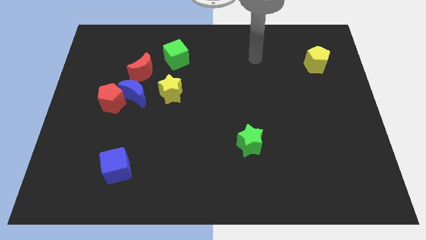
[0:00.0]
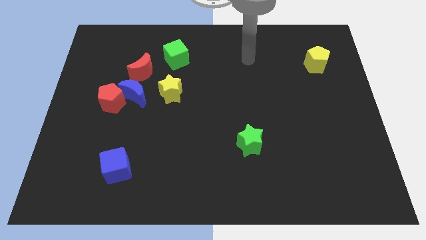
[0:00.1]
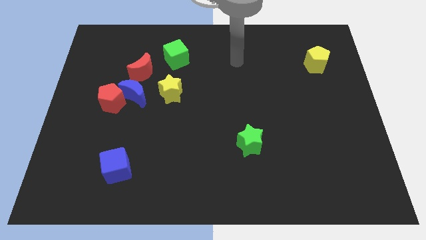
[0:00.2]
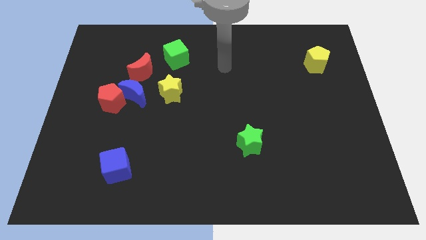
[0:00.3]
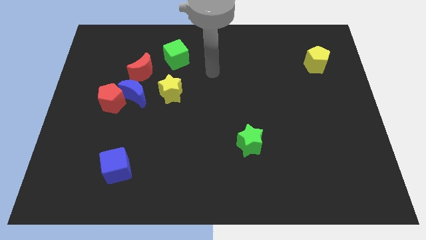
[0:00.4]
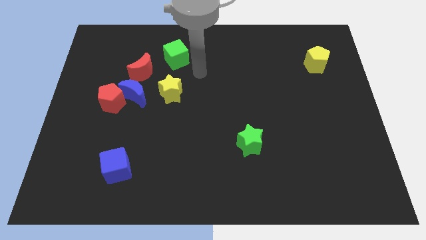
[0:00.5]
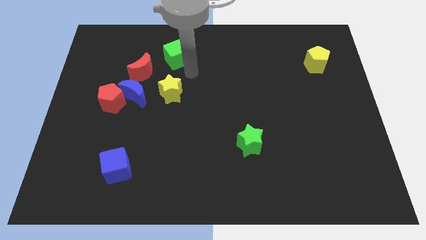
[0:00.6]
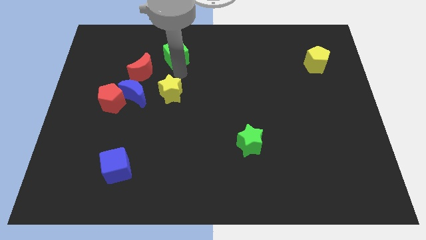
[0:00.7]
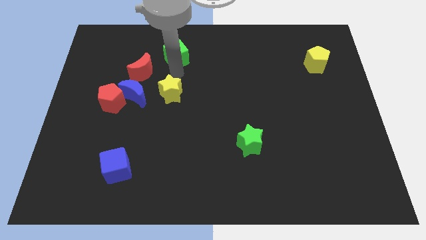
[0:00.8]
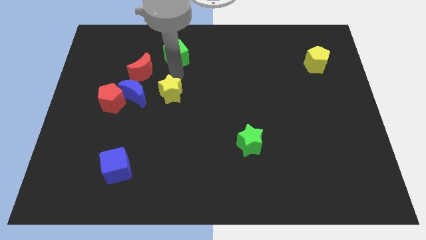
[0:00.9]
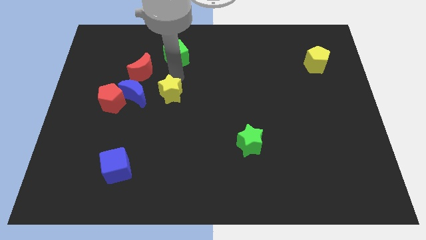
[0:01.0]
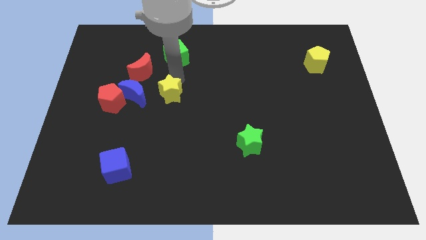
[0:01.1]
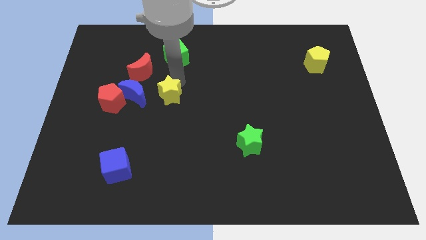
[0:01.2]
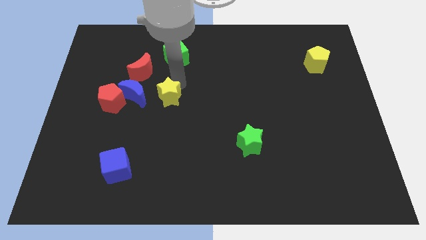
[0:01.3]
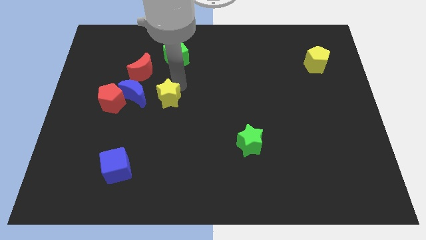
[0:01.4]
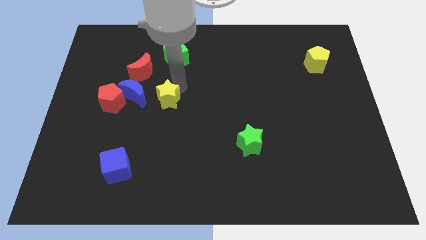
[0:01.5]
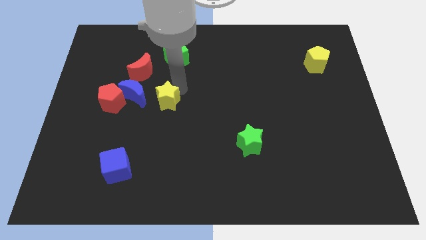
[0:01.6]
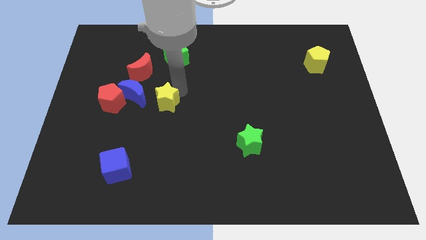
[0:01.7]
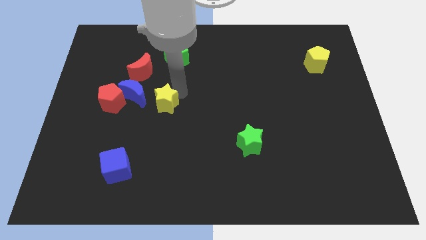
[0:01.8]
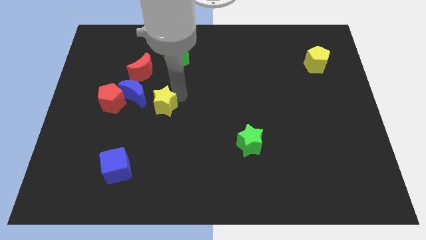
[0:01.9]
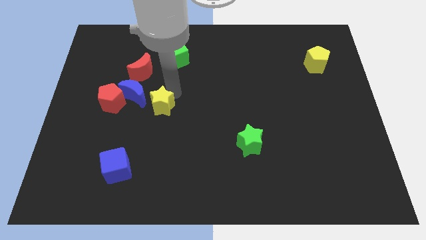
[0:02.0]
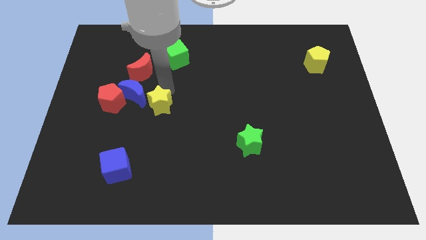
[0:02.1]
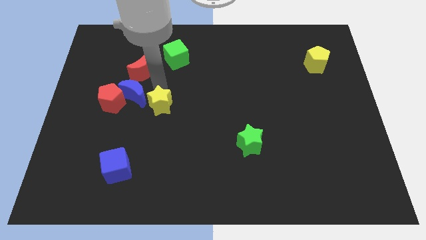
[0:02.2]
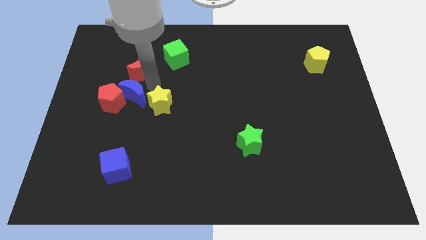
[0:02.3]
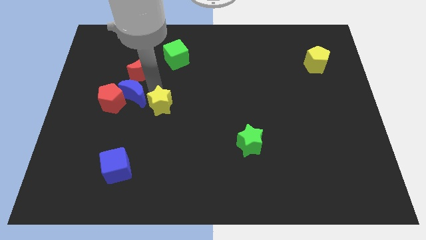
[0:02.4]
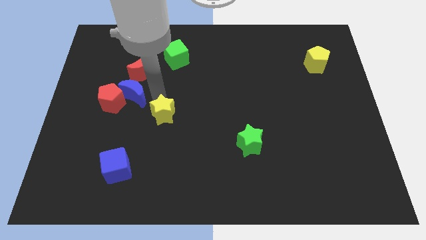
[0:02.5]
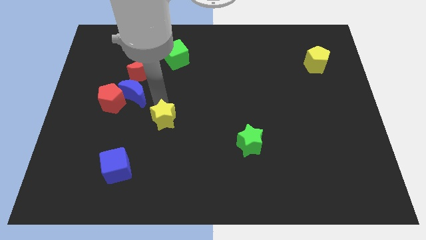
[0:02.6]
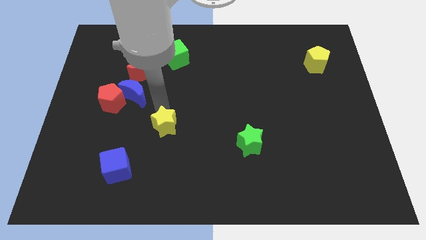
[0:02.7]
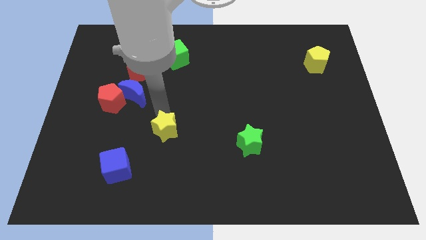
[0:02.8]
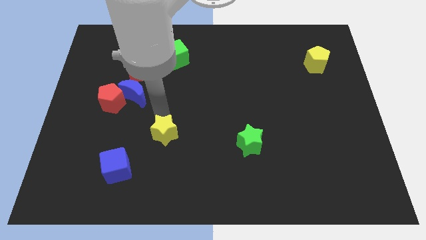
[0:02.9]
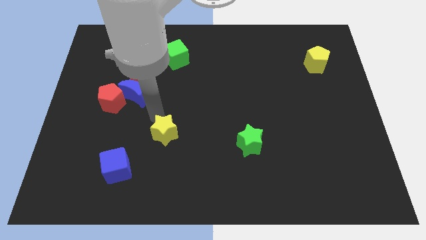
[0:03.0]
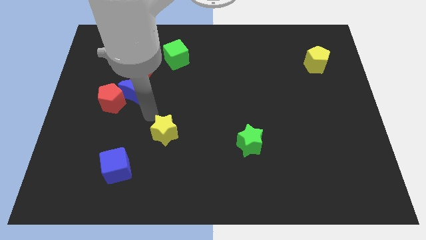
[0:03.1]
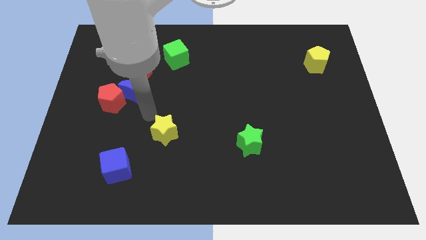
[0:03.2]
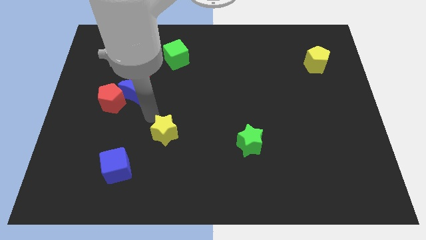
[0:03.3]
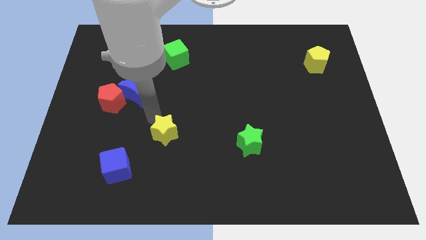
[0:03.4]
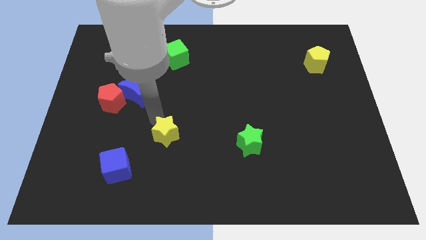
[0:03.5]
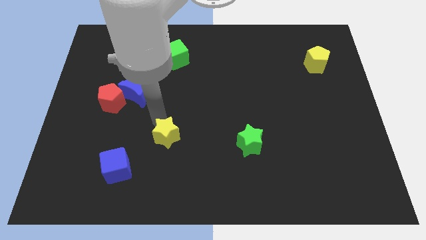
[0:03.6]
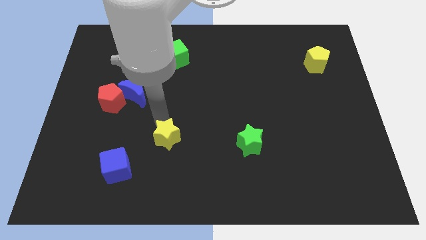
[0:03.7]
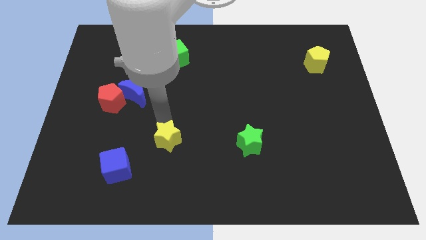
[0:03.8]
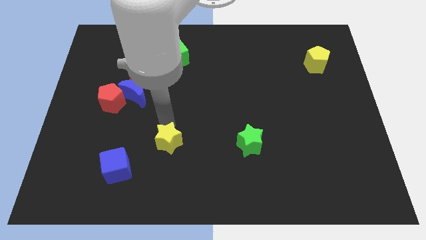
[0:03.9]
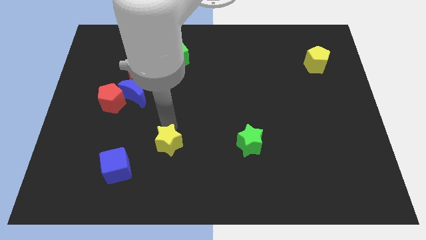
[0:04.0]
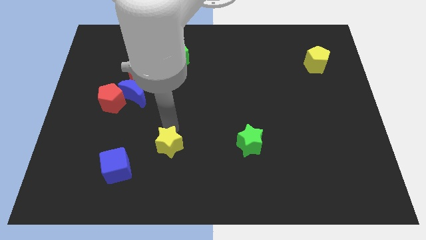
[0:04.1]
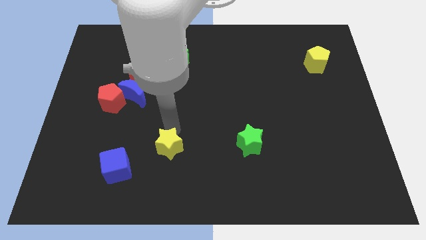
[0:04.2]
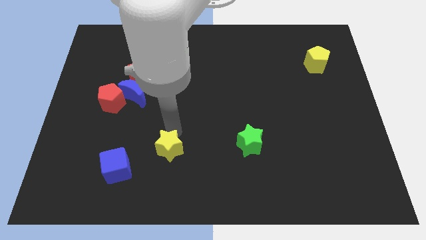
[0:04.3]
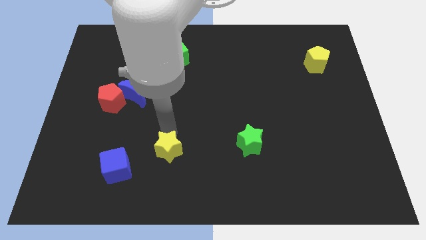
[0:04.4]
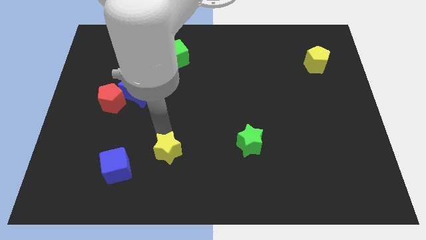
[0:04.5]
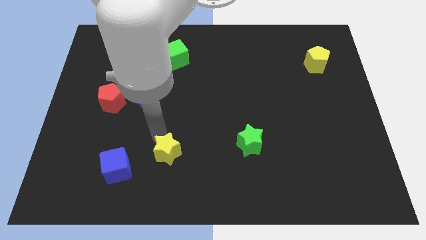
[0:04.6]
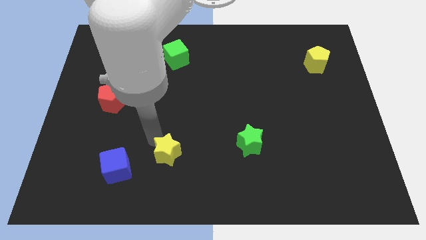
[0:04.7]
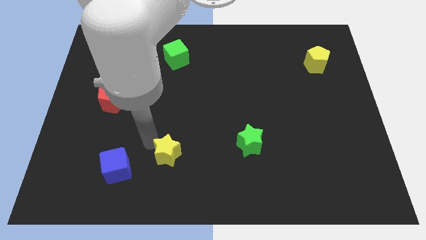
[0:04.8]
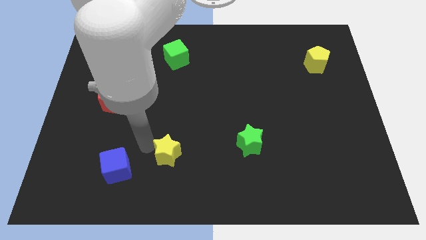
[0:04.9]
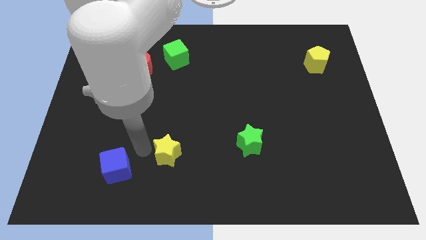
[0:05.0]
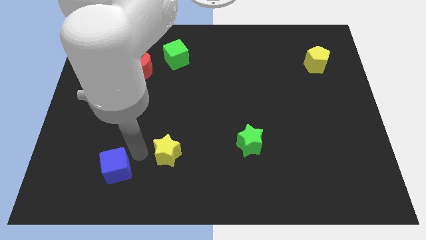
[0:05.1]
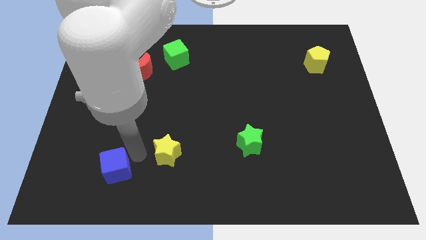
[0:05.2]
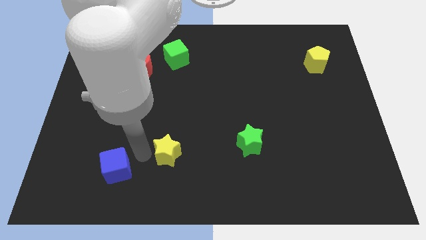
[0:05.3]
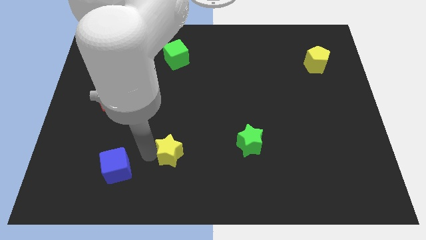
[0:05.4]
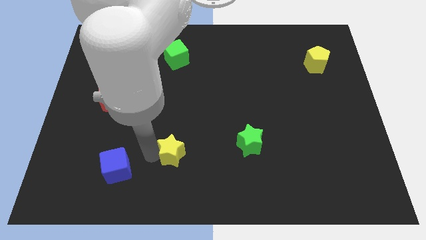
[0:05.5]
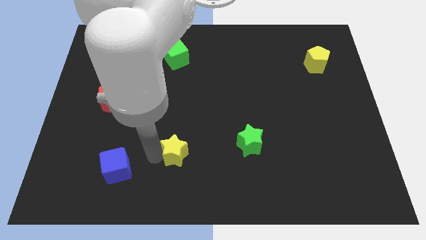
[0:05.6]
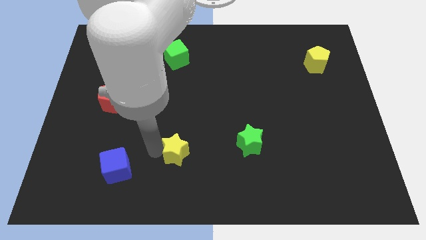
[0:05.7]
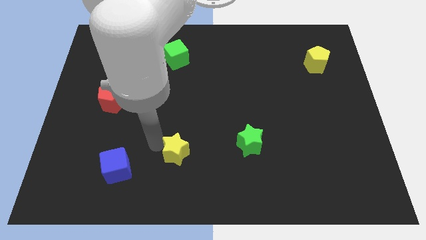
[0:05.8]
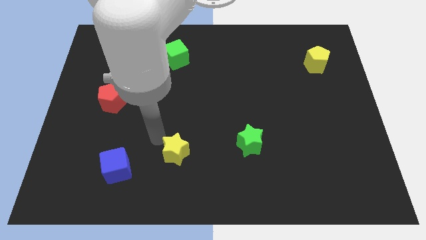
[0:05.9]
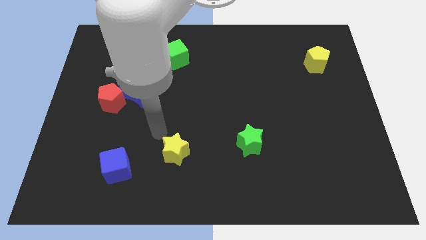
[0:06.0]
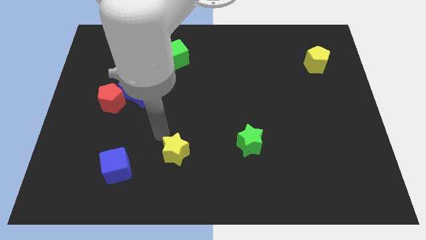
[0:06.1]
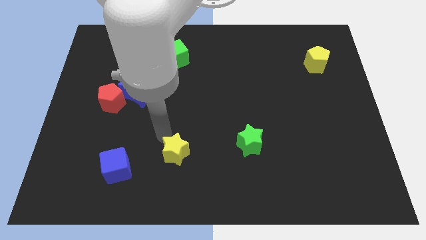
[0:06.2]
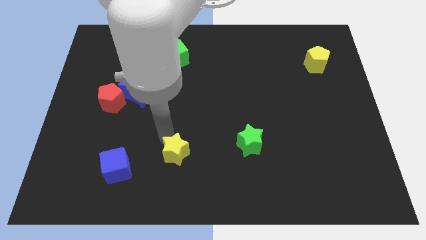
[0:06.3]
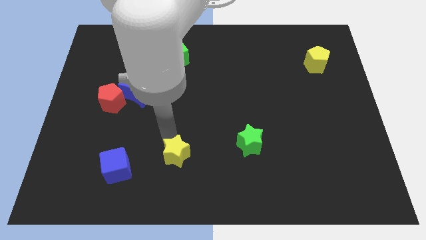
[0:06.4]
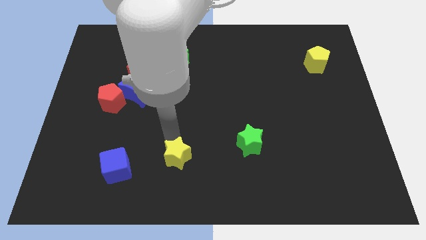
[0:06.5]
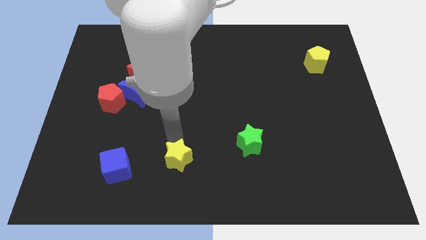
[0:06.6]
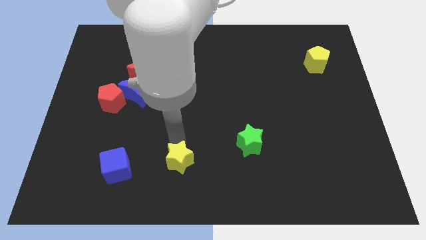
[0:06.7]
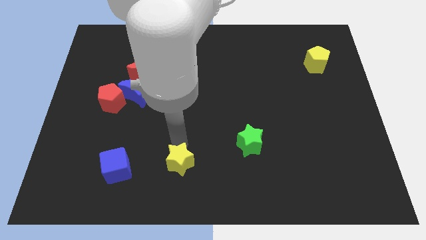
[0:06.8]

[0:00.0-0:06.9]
put the yellow star to the bottom side

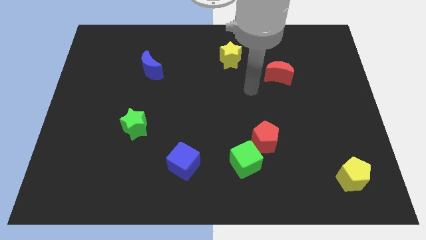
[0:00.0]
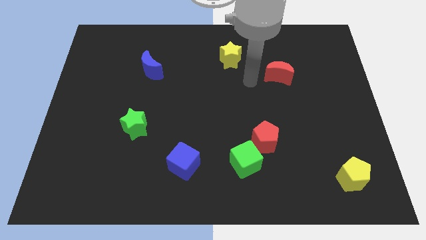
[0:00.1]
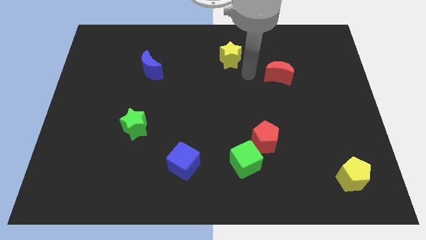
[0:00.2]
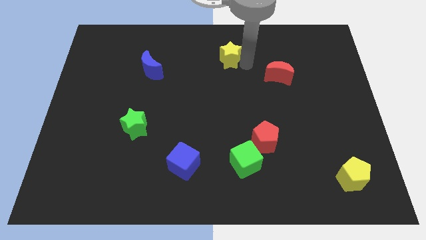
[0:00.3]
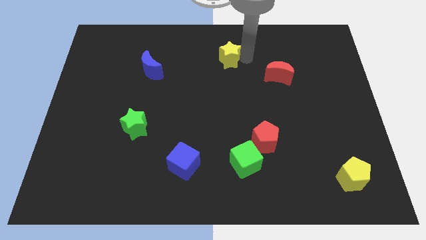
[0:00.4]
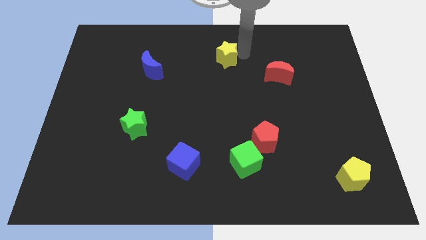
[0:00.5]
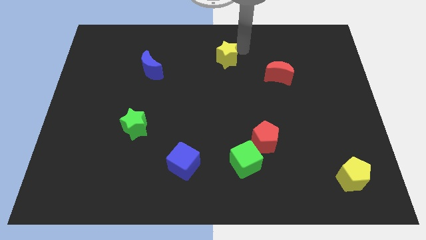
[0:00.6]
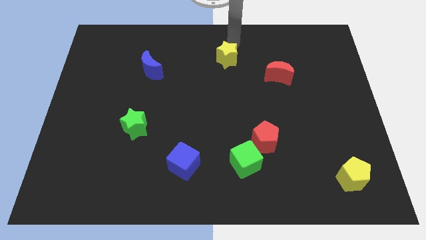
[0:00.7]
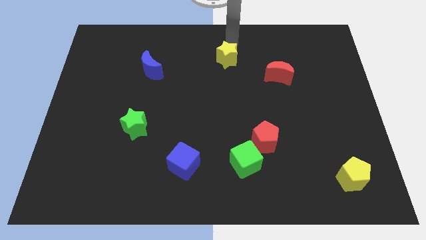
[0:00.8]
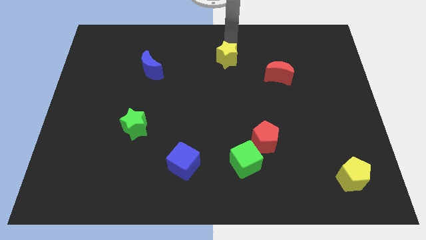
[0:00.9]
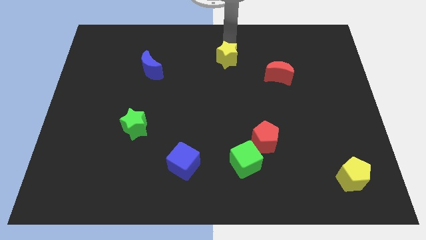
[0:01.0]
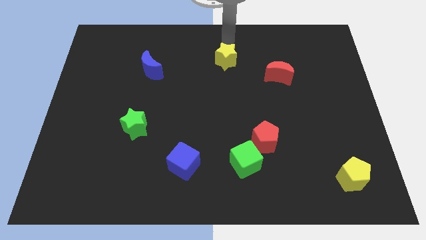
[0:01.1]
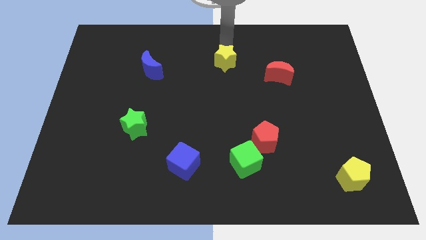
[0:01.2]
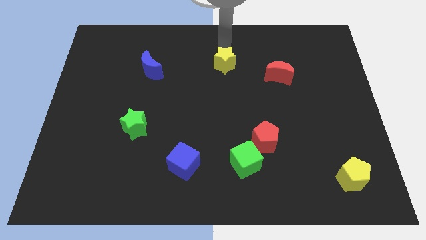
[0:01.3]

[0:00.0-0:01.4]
slide the yellow star to the center
